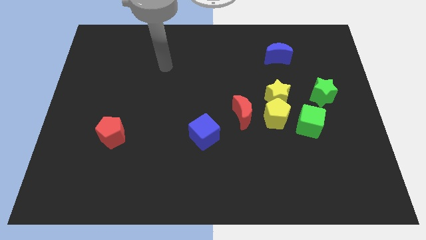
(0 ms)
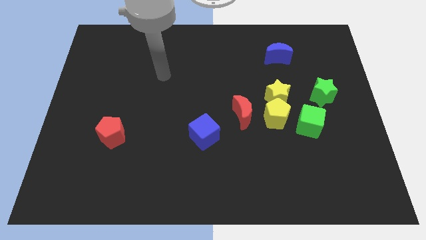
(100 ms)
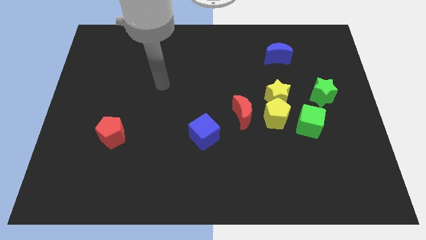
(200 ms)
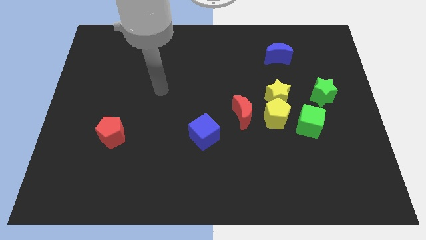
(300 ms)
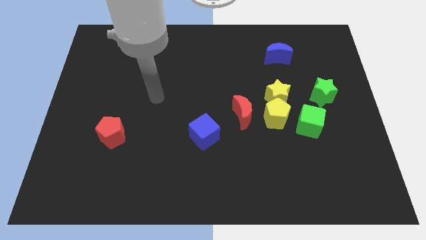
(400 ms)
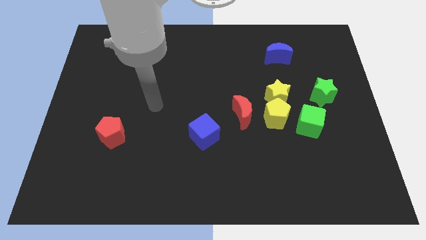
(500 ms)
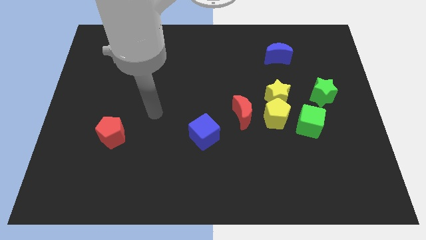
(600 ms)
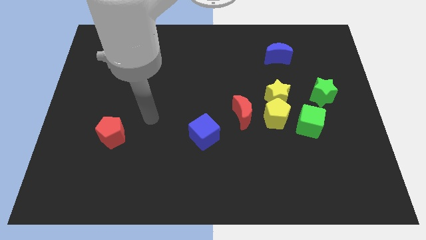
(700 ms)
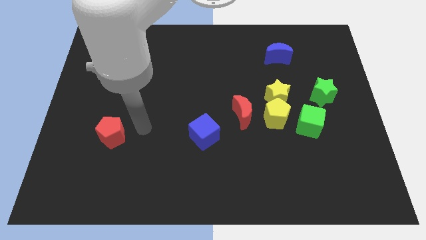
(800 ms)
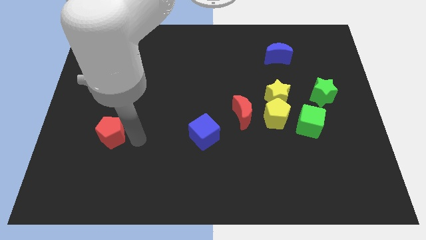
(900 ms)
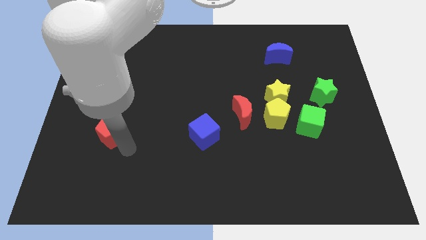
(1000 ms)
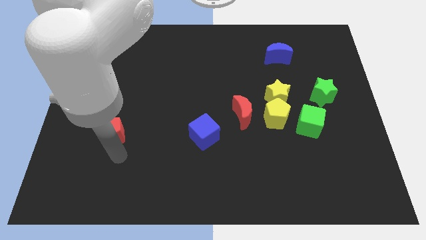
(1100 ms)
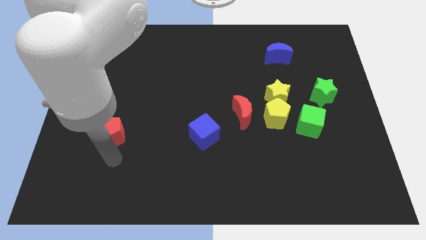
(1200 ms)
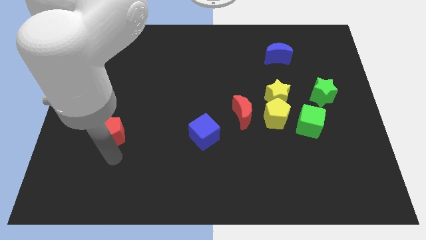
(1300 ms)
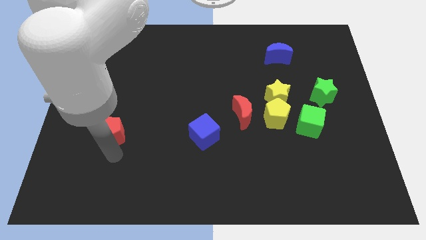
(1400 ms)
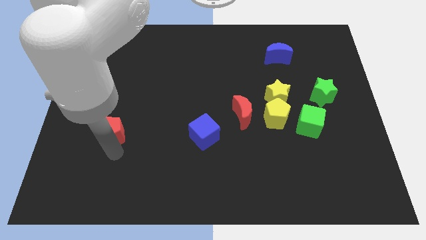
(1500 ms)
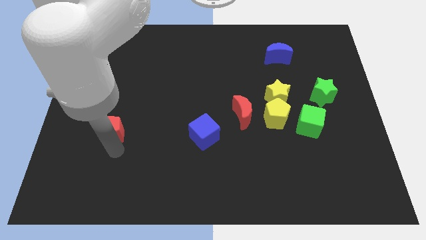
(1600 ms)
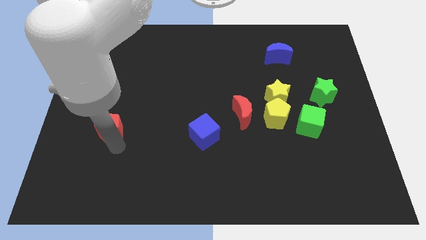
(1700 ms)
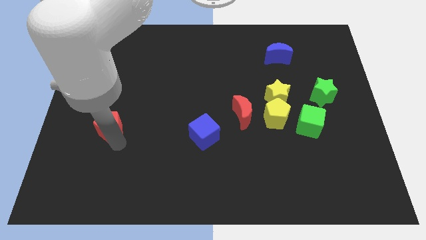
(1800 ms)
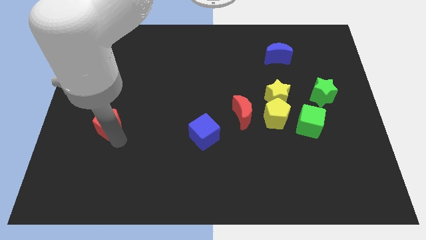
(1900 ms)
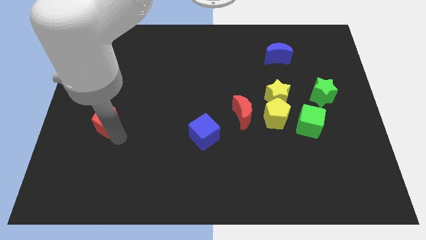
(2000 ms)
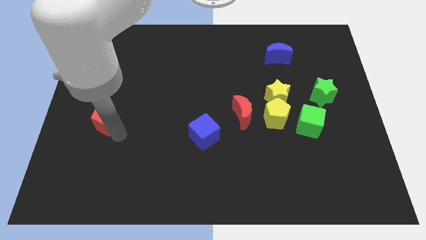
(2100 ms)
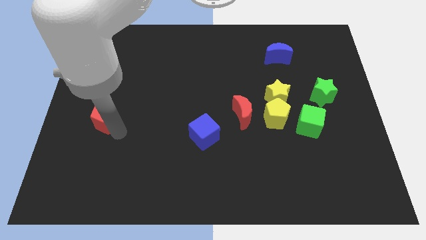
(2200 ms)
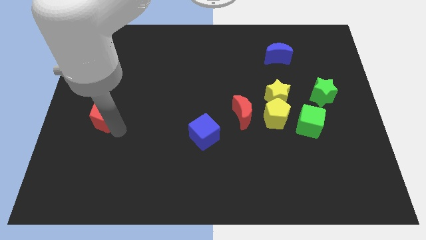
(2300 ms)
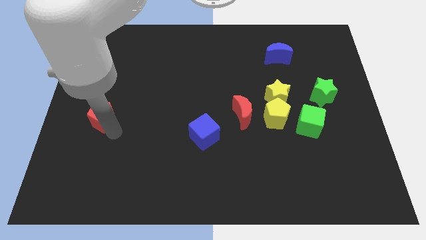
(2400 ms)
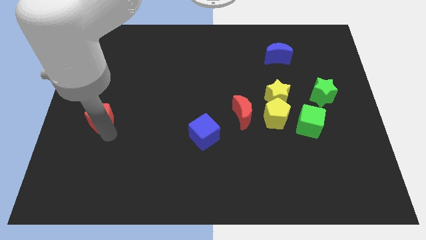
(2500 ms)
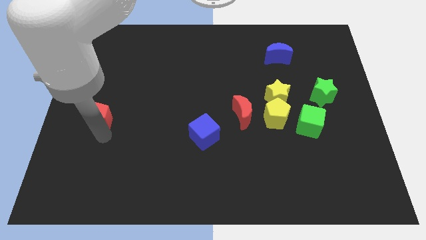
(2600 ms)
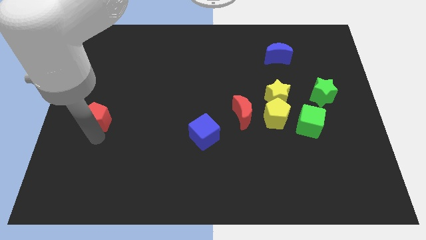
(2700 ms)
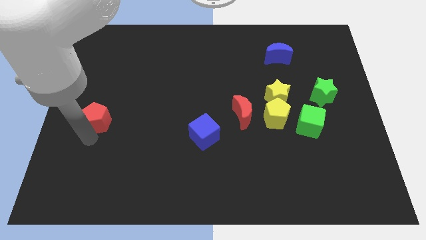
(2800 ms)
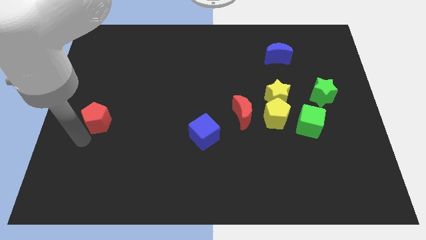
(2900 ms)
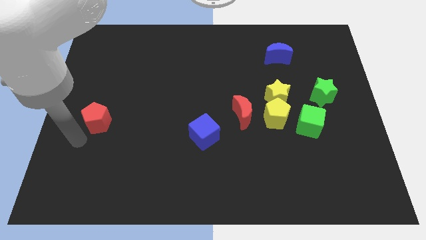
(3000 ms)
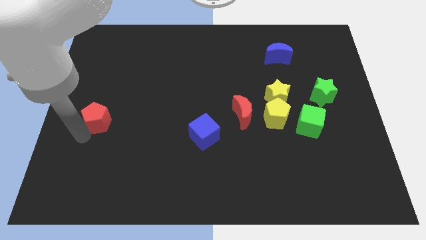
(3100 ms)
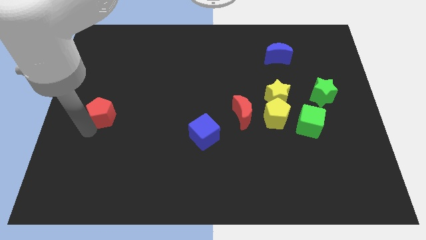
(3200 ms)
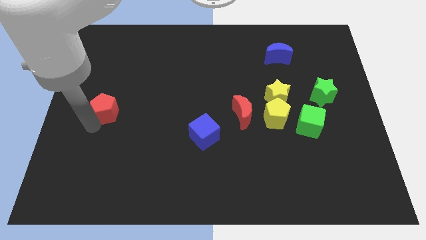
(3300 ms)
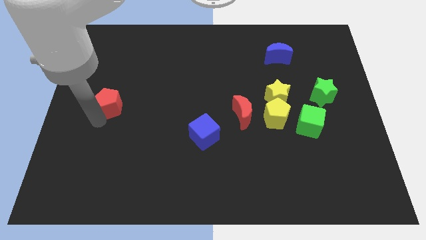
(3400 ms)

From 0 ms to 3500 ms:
push the red pentagon somewhat upwards

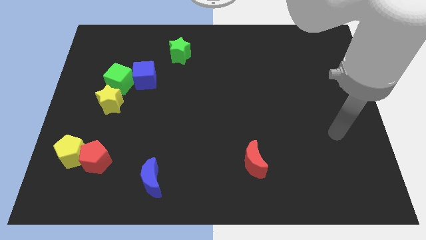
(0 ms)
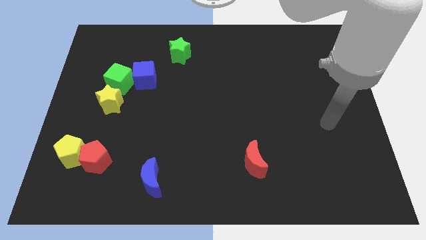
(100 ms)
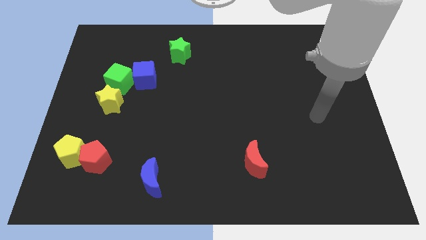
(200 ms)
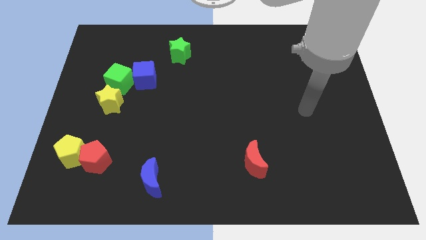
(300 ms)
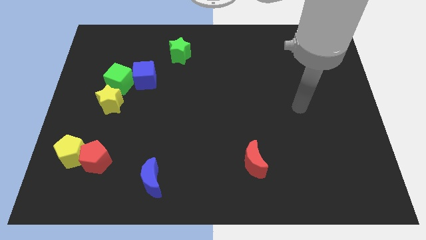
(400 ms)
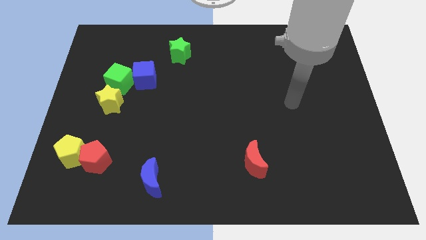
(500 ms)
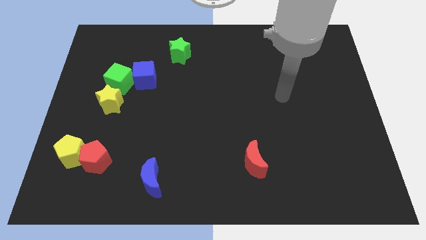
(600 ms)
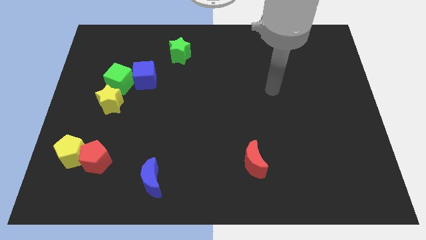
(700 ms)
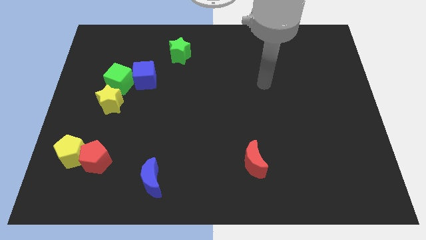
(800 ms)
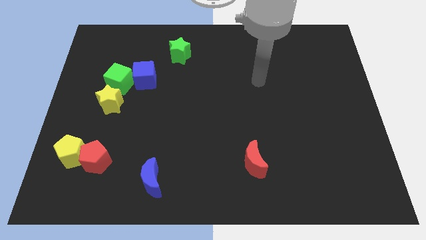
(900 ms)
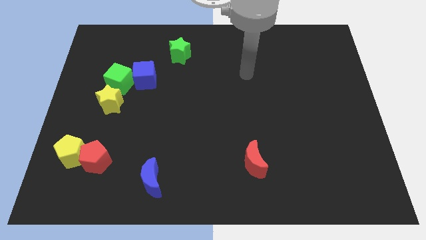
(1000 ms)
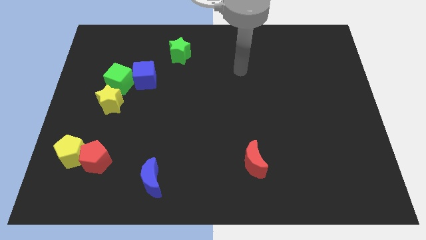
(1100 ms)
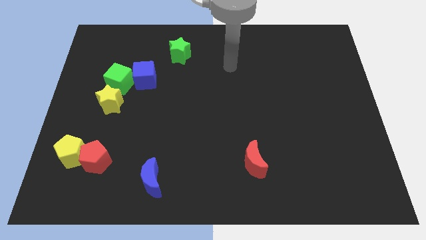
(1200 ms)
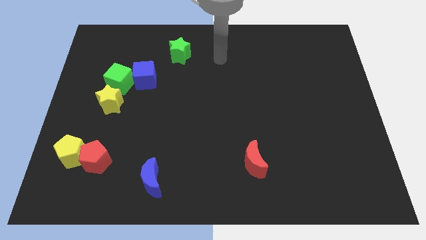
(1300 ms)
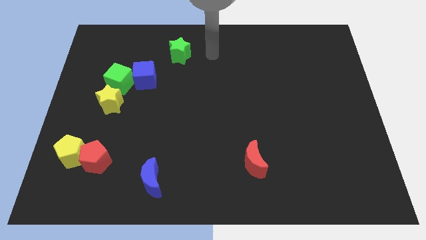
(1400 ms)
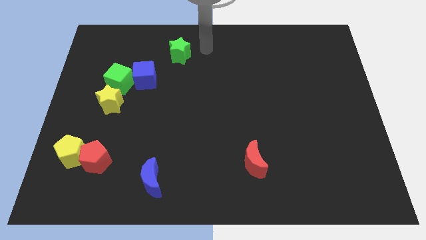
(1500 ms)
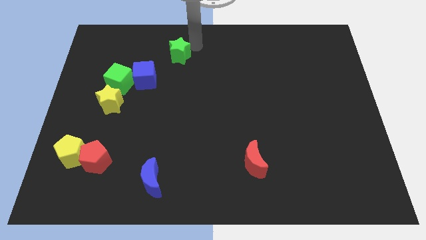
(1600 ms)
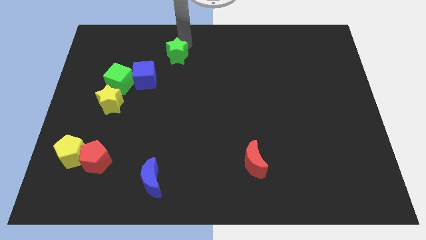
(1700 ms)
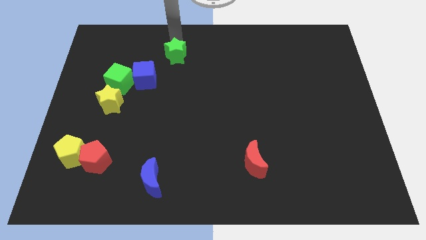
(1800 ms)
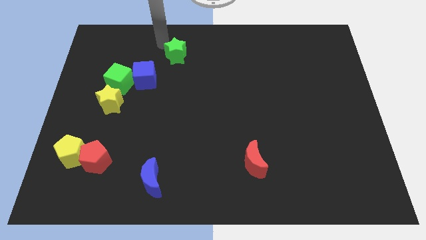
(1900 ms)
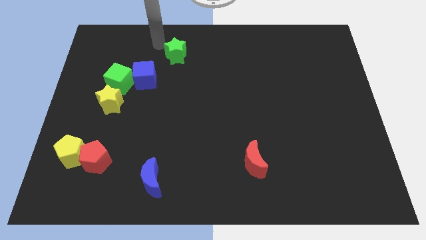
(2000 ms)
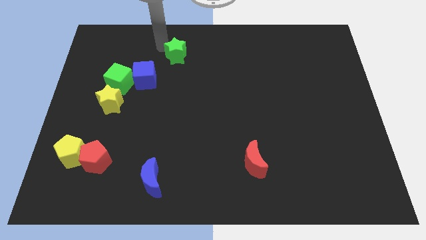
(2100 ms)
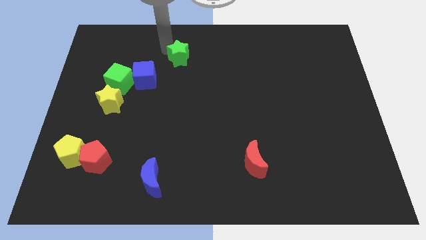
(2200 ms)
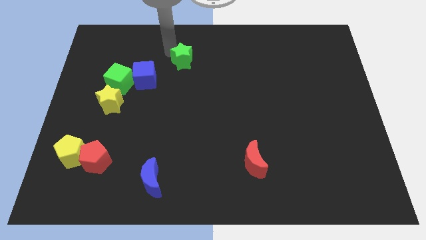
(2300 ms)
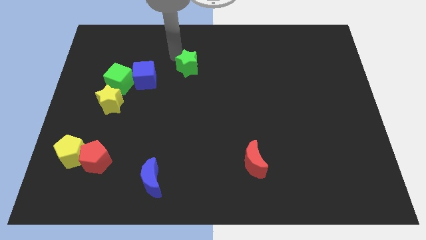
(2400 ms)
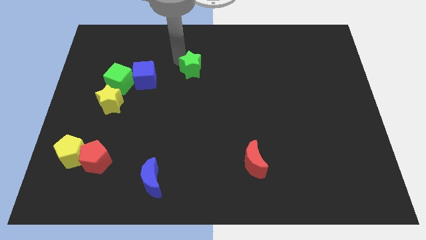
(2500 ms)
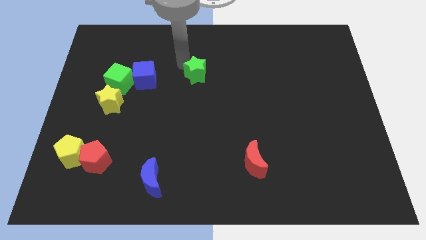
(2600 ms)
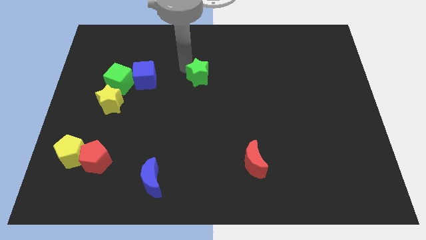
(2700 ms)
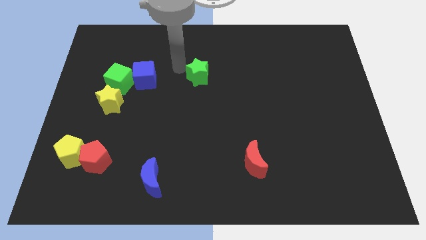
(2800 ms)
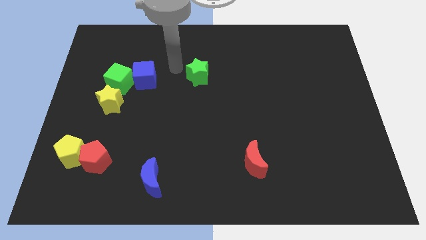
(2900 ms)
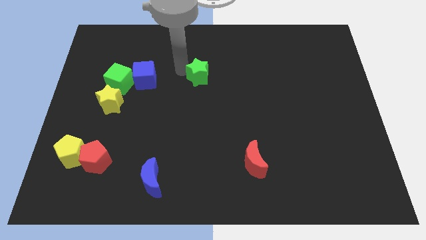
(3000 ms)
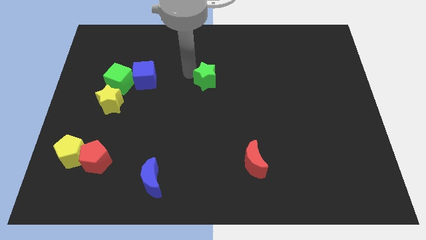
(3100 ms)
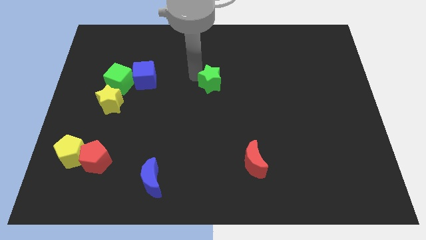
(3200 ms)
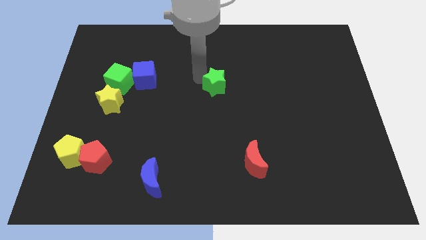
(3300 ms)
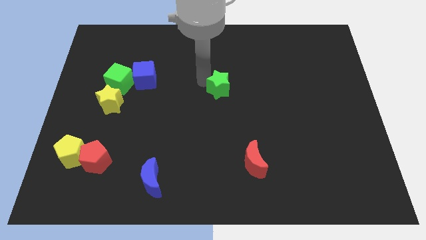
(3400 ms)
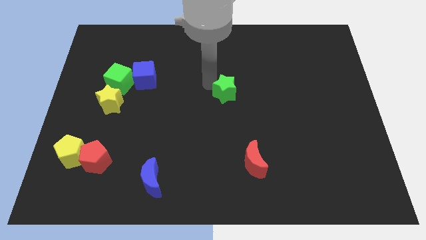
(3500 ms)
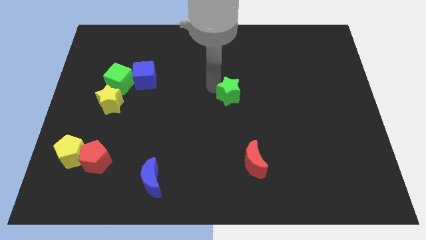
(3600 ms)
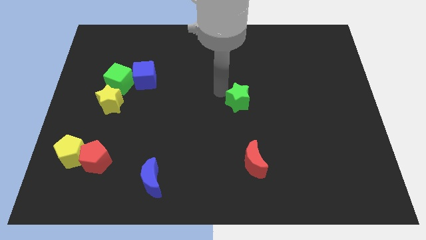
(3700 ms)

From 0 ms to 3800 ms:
push the green star downwards and right diagonally

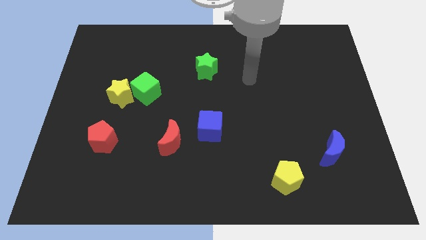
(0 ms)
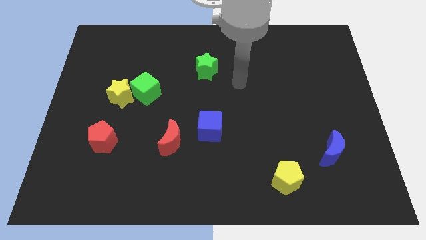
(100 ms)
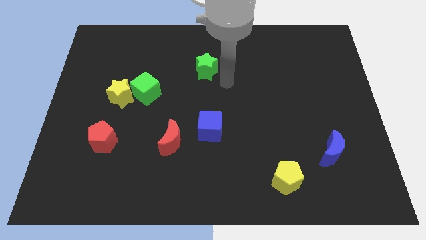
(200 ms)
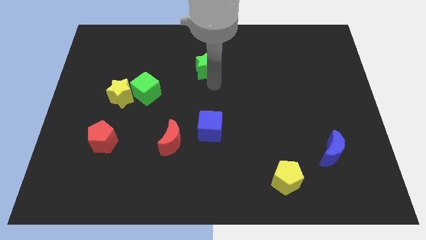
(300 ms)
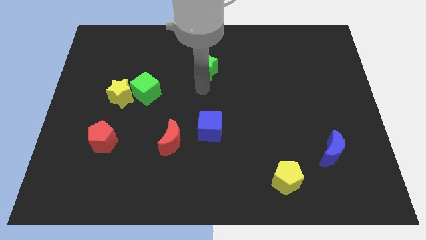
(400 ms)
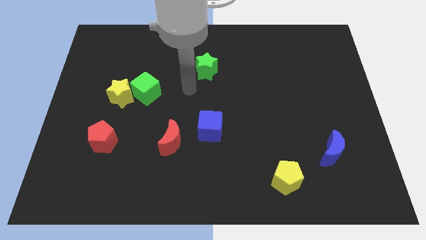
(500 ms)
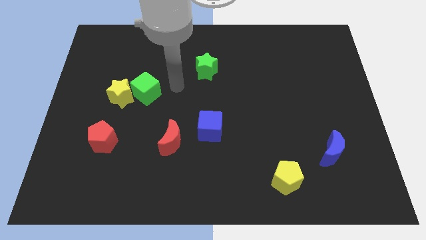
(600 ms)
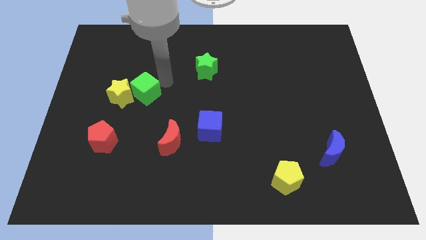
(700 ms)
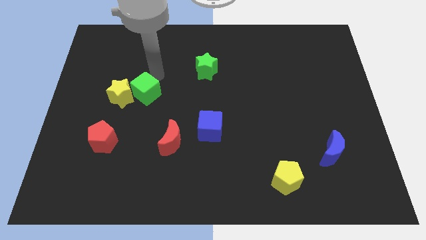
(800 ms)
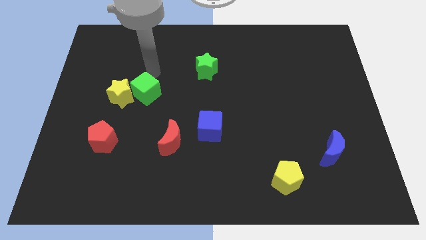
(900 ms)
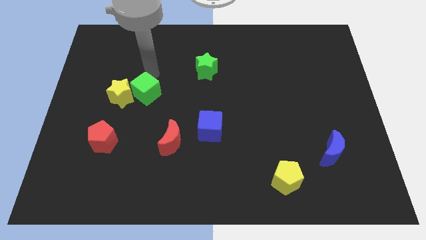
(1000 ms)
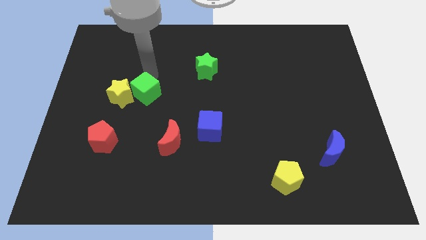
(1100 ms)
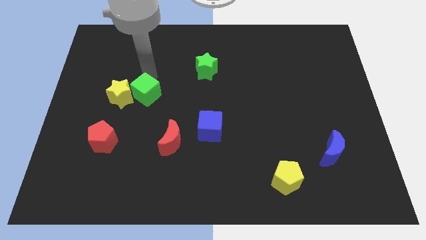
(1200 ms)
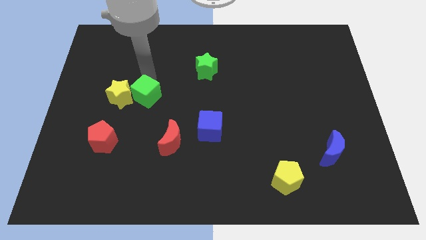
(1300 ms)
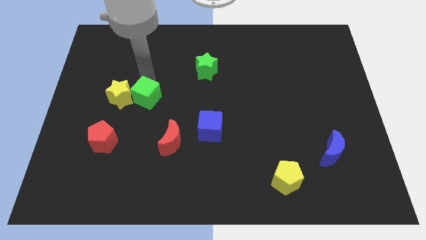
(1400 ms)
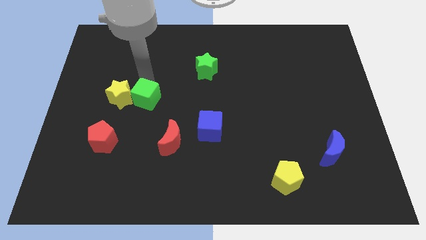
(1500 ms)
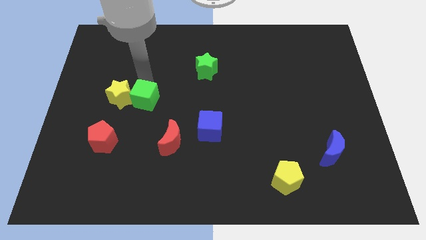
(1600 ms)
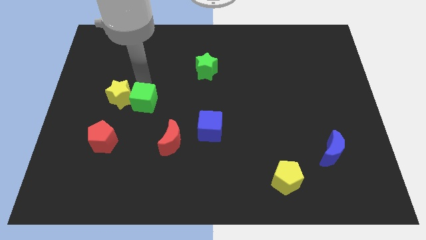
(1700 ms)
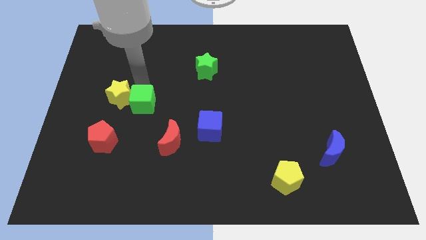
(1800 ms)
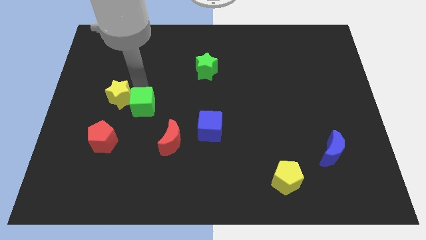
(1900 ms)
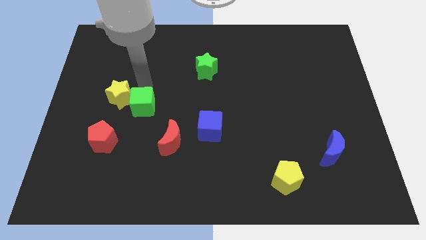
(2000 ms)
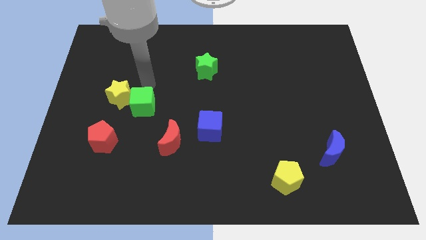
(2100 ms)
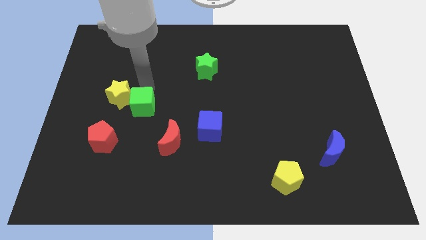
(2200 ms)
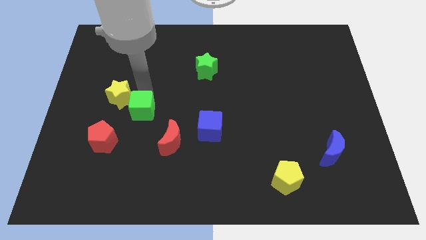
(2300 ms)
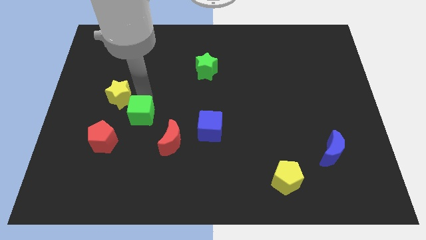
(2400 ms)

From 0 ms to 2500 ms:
slightly slide the green cube downwards
